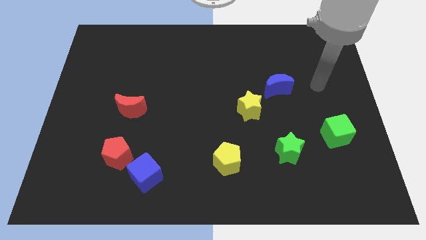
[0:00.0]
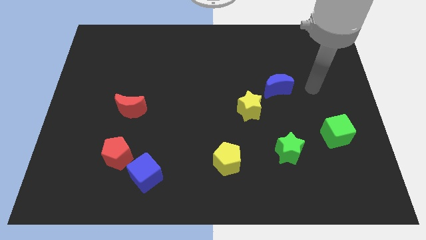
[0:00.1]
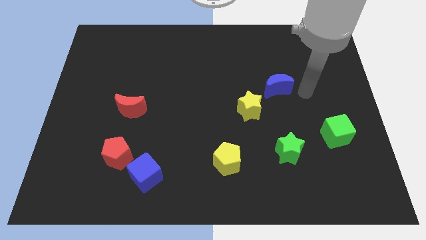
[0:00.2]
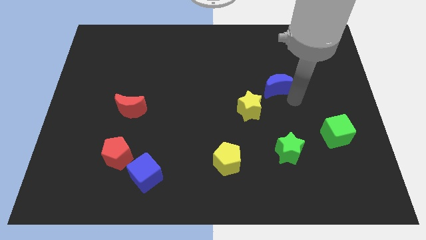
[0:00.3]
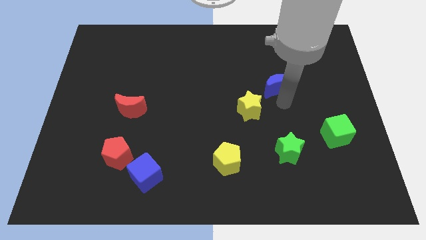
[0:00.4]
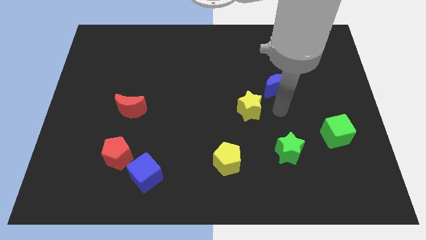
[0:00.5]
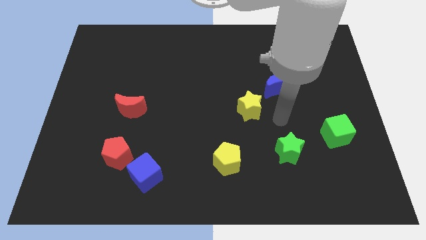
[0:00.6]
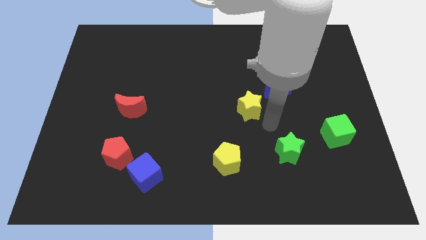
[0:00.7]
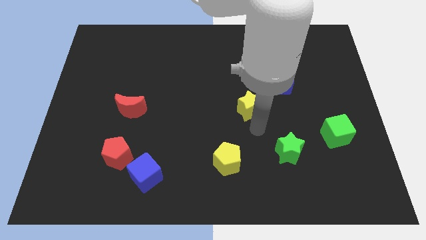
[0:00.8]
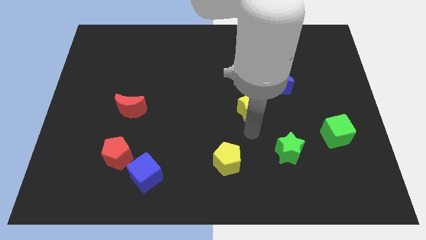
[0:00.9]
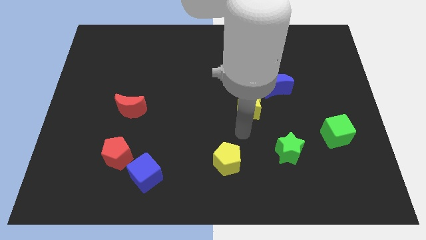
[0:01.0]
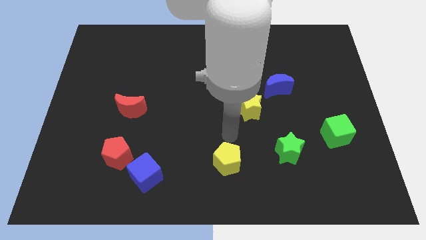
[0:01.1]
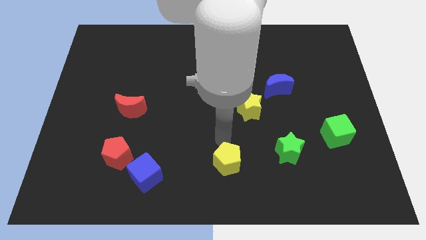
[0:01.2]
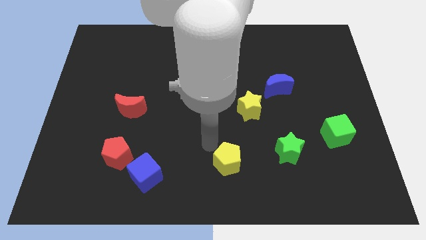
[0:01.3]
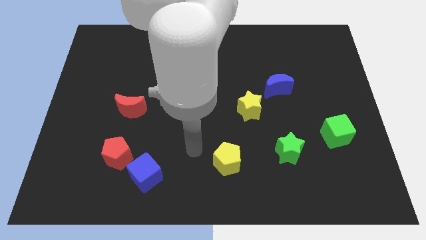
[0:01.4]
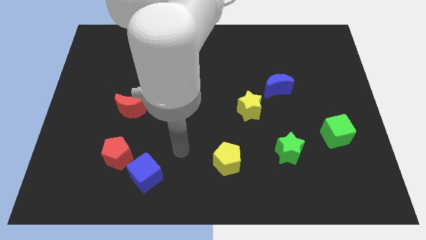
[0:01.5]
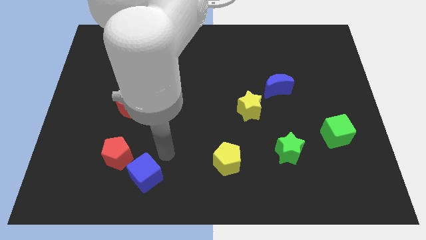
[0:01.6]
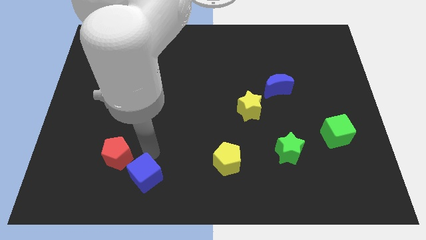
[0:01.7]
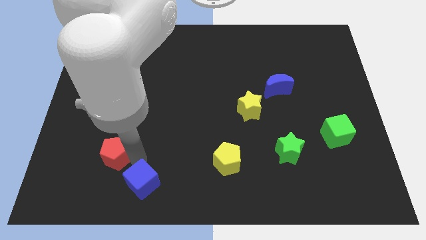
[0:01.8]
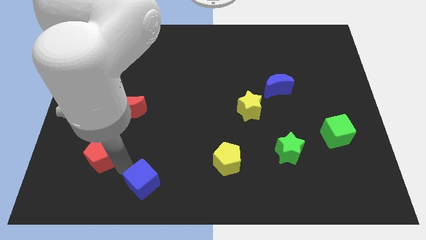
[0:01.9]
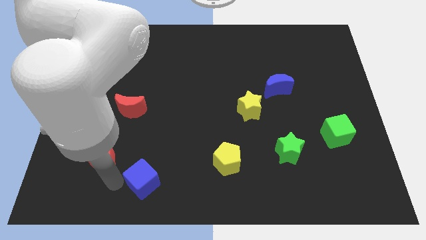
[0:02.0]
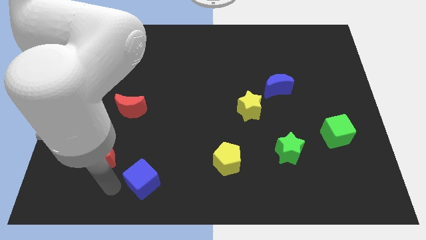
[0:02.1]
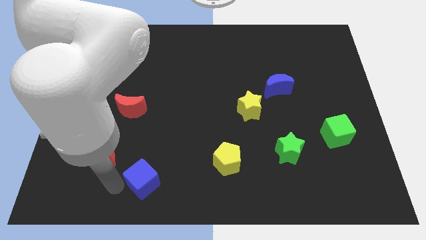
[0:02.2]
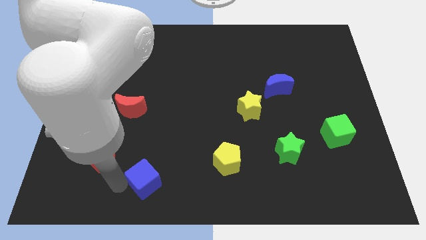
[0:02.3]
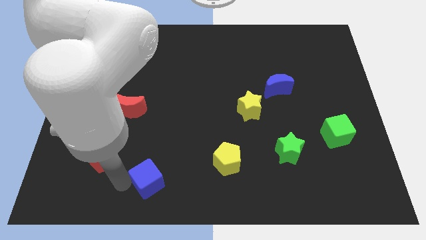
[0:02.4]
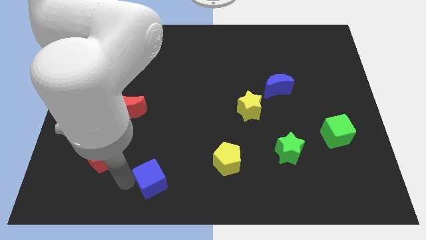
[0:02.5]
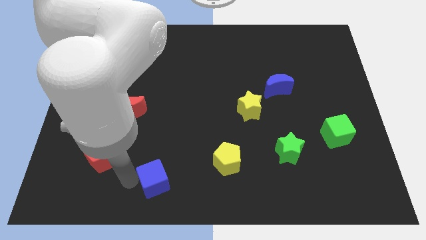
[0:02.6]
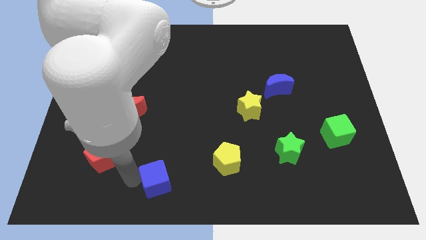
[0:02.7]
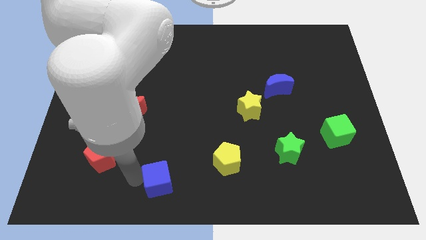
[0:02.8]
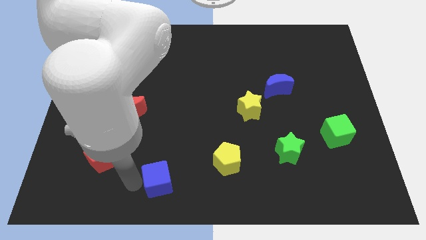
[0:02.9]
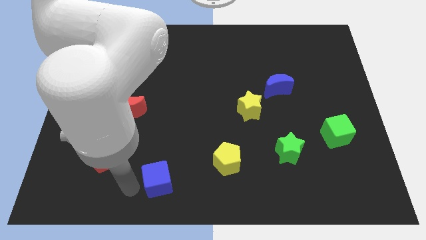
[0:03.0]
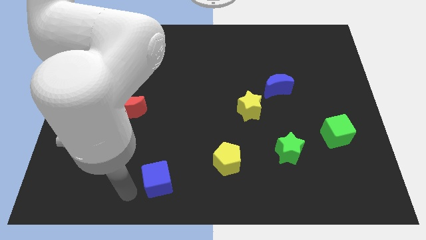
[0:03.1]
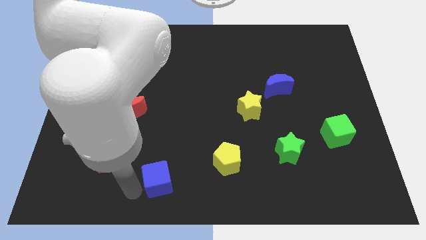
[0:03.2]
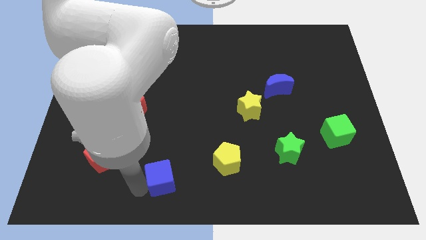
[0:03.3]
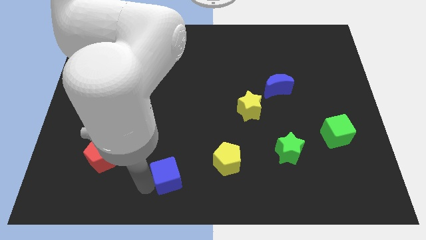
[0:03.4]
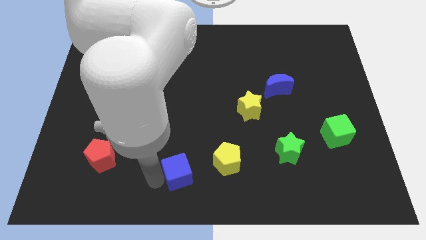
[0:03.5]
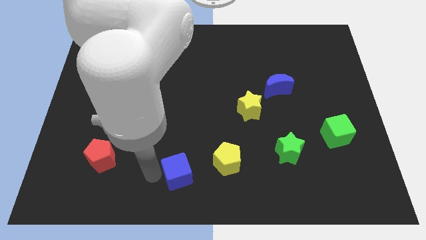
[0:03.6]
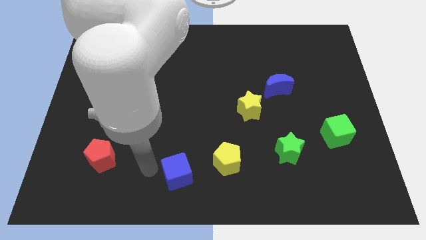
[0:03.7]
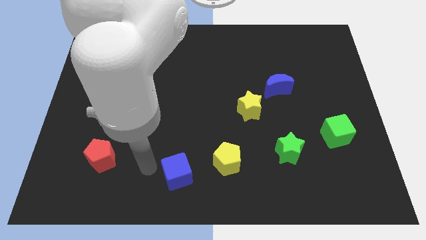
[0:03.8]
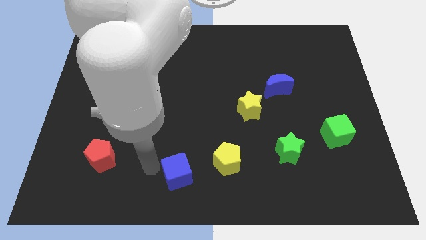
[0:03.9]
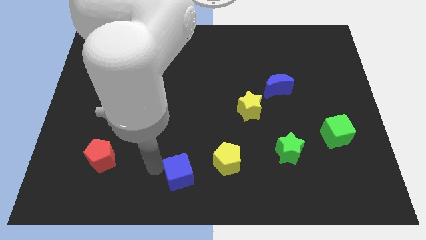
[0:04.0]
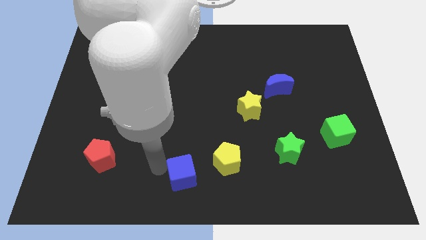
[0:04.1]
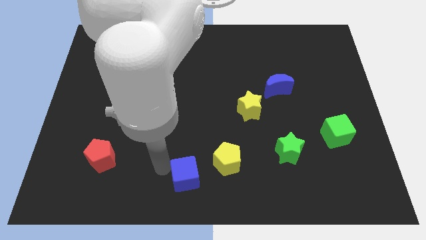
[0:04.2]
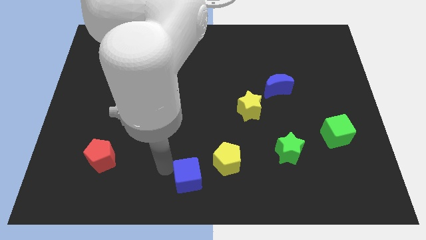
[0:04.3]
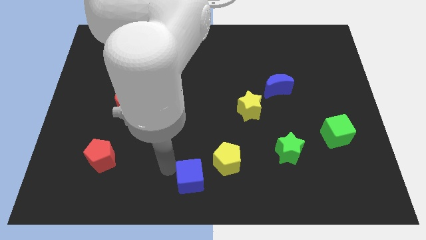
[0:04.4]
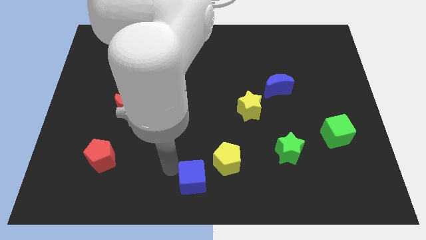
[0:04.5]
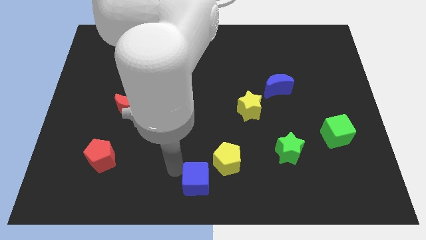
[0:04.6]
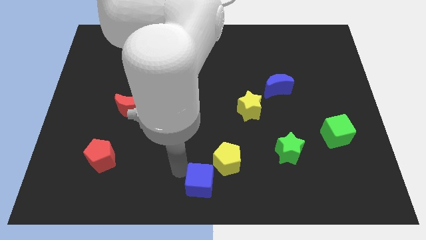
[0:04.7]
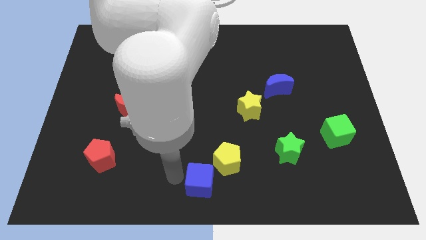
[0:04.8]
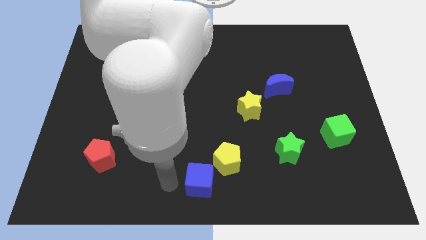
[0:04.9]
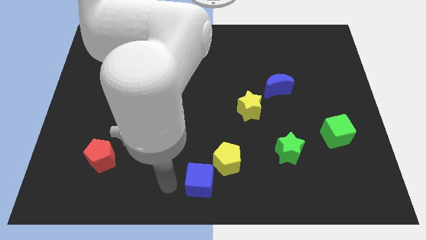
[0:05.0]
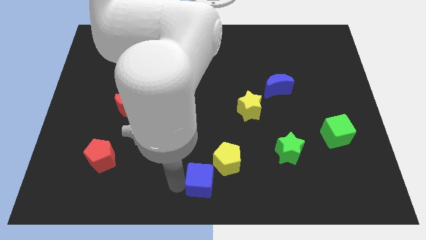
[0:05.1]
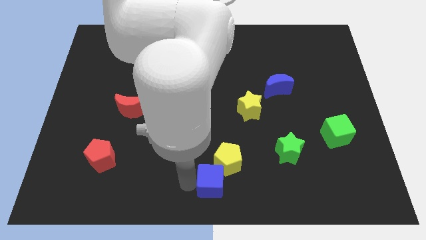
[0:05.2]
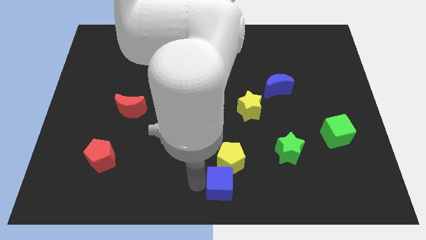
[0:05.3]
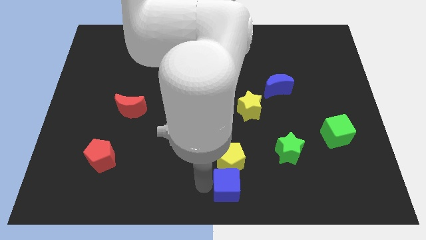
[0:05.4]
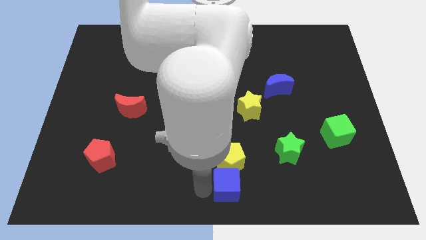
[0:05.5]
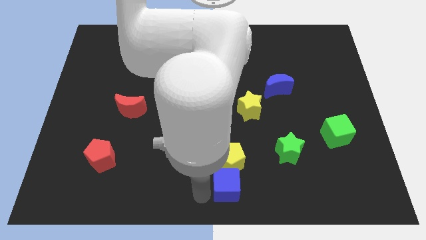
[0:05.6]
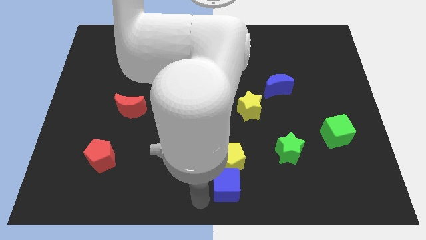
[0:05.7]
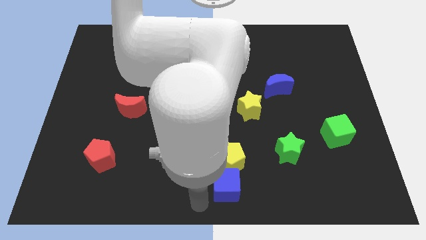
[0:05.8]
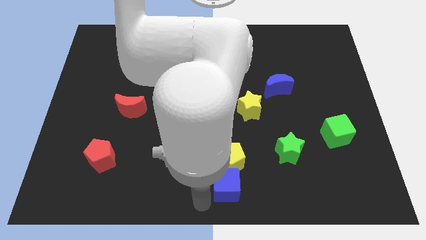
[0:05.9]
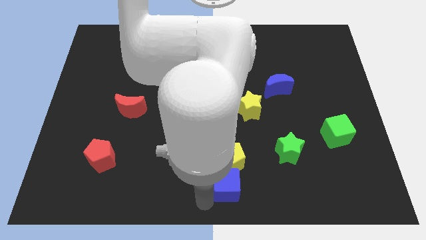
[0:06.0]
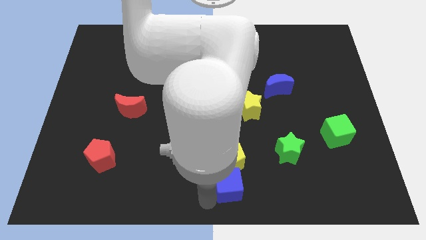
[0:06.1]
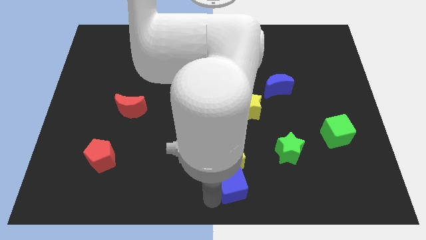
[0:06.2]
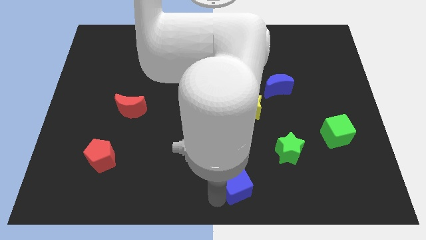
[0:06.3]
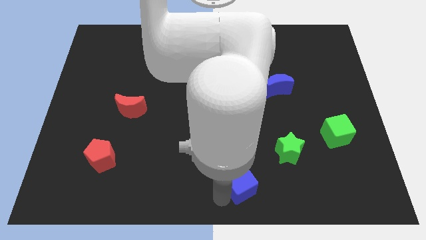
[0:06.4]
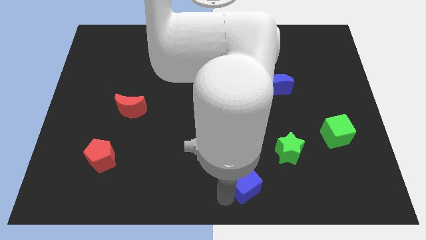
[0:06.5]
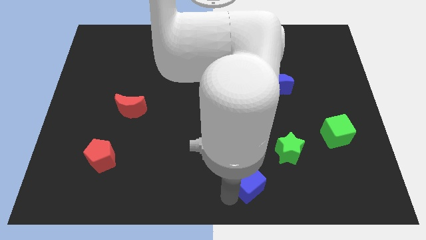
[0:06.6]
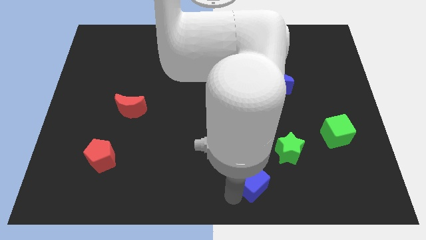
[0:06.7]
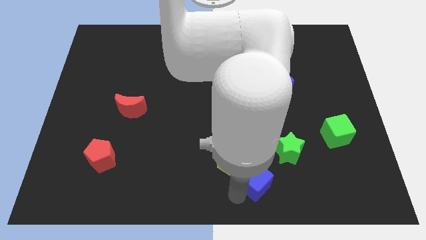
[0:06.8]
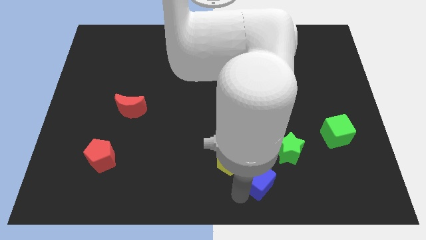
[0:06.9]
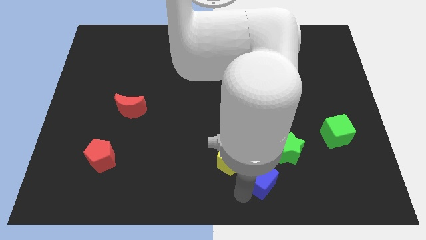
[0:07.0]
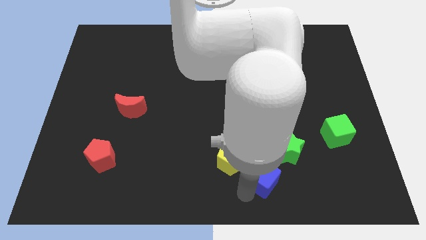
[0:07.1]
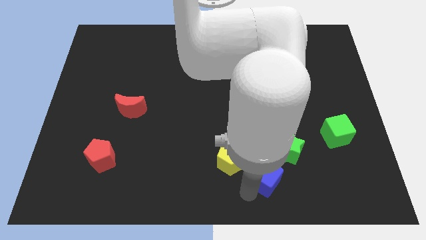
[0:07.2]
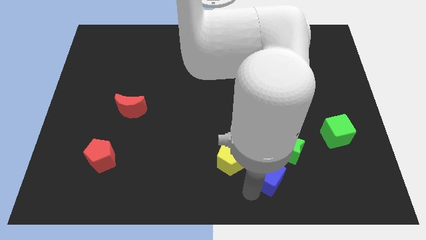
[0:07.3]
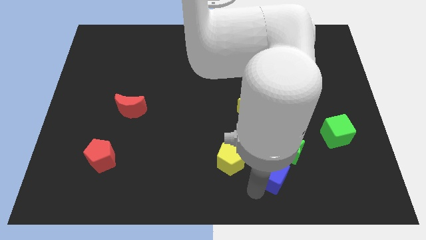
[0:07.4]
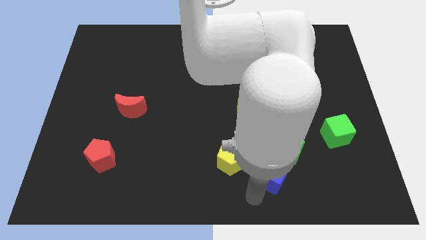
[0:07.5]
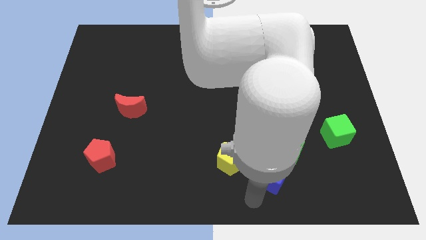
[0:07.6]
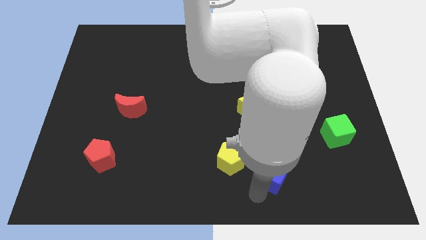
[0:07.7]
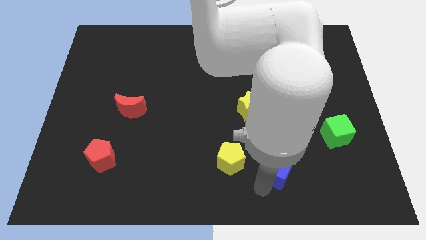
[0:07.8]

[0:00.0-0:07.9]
push the blue cube next to the green star
